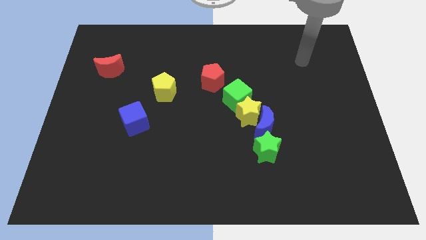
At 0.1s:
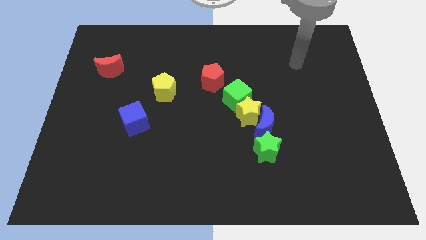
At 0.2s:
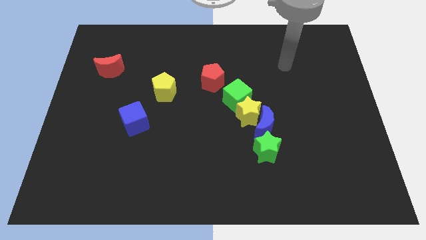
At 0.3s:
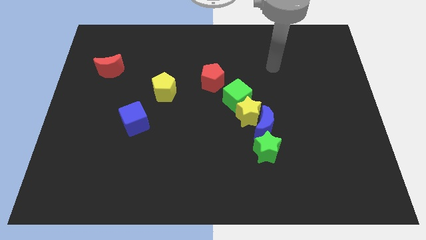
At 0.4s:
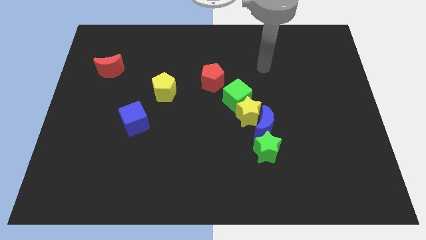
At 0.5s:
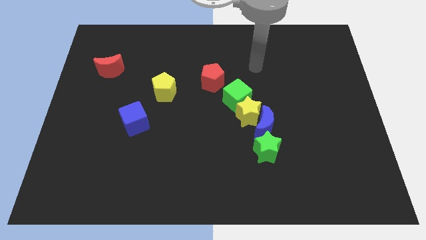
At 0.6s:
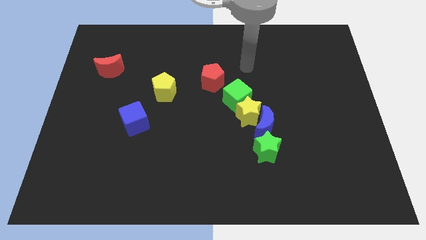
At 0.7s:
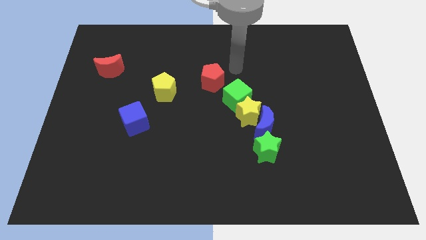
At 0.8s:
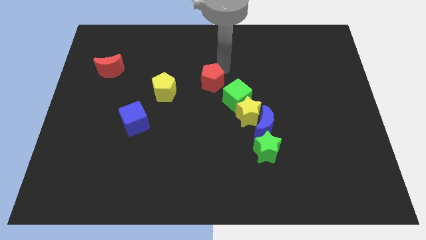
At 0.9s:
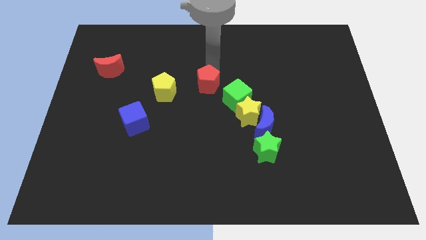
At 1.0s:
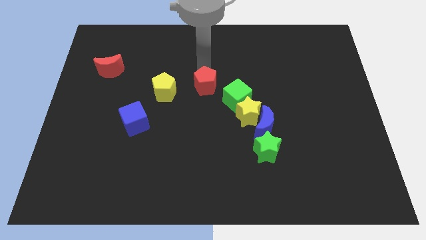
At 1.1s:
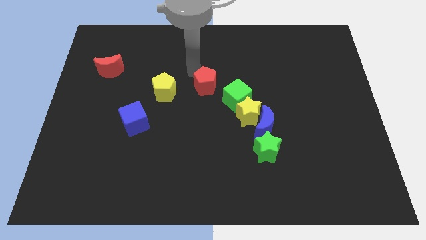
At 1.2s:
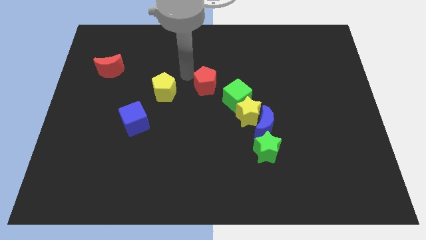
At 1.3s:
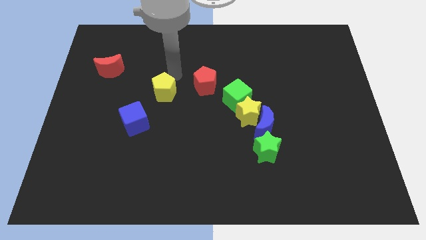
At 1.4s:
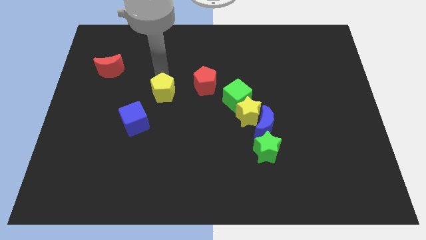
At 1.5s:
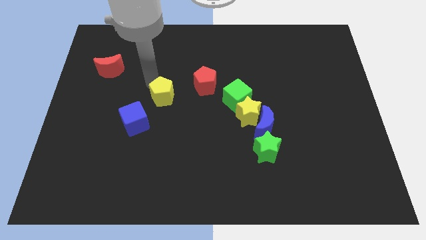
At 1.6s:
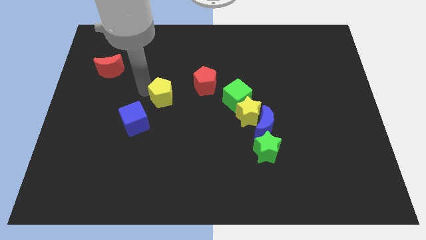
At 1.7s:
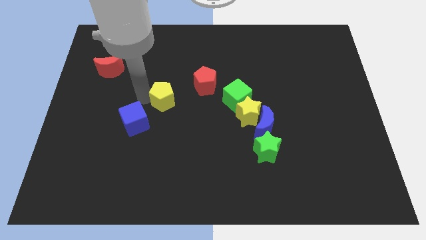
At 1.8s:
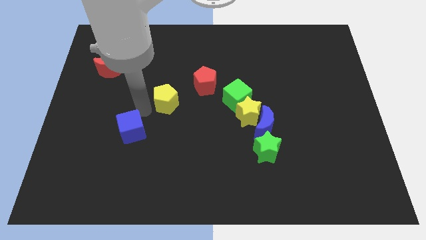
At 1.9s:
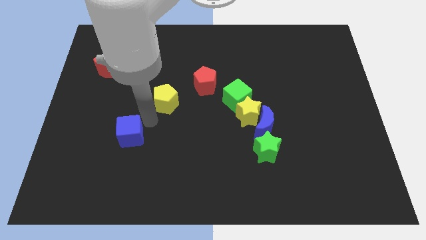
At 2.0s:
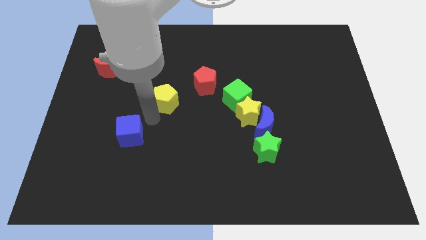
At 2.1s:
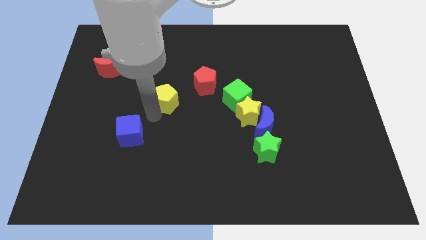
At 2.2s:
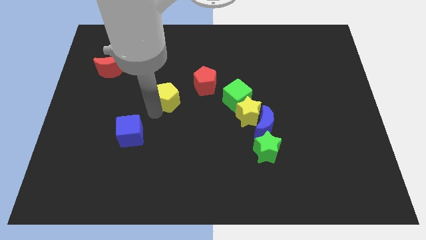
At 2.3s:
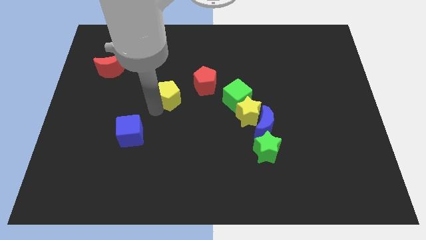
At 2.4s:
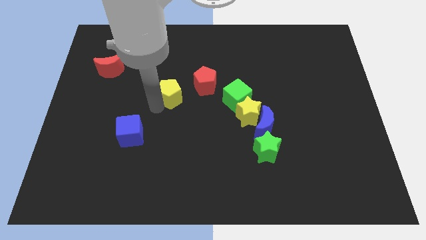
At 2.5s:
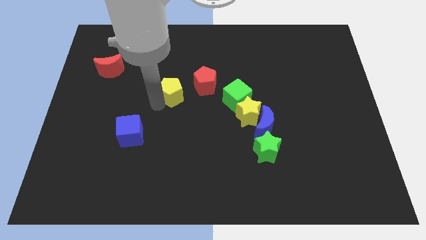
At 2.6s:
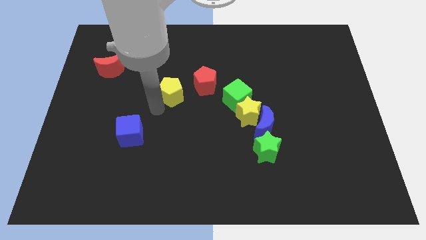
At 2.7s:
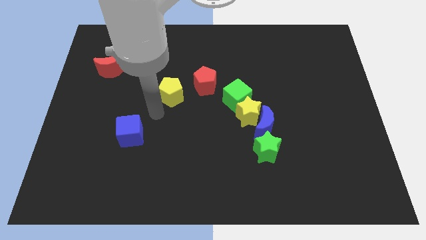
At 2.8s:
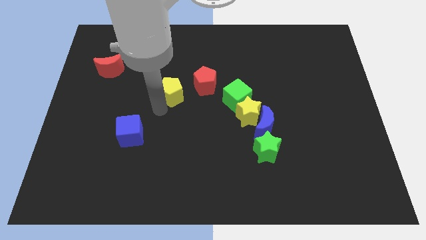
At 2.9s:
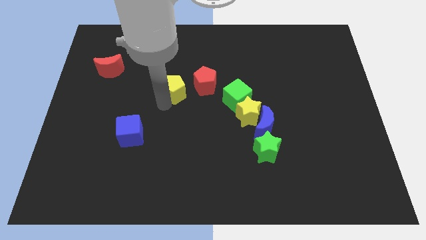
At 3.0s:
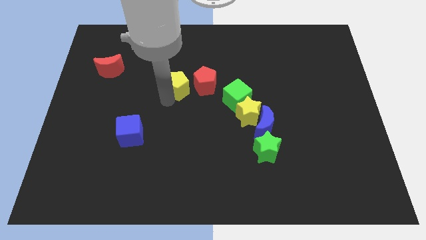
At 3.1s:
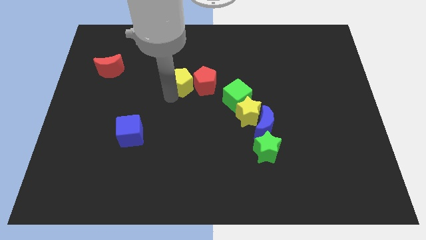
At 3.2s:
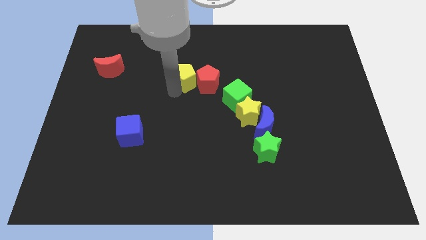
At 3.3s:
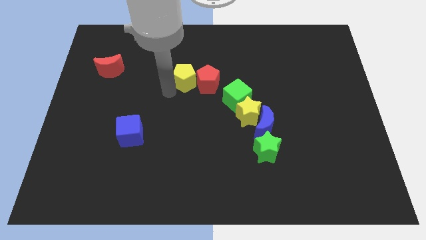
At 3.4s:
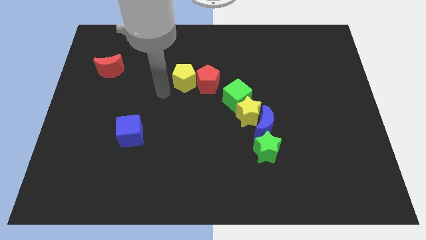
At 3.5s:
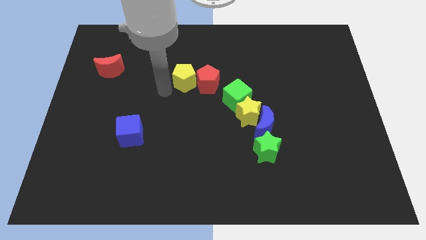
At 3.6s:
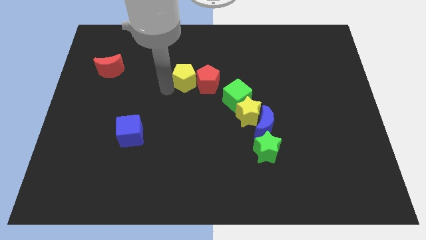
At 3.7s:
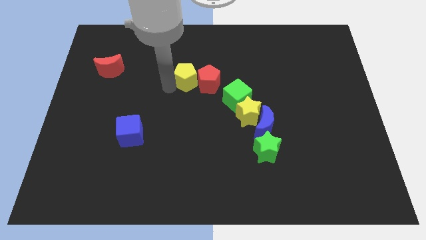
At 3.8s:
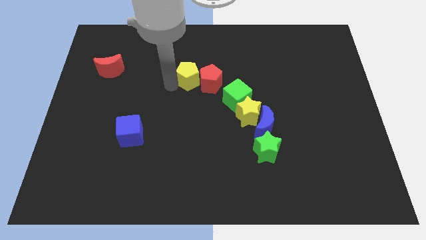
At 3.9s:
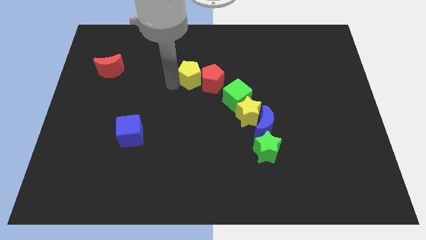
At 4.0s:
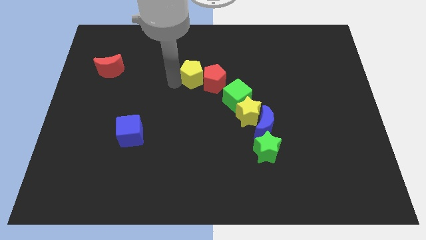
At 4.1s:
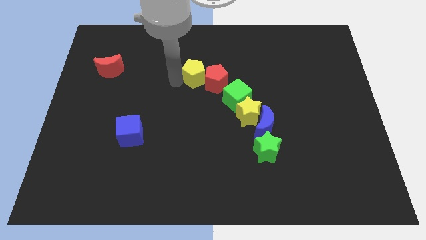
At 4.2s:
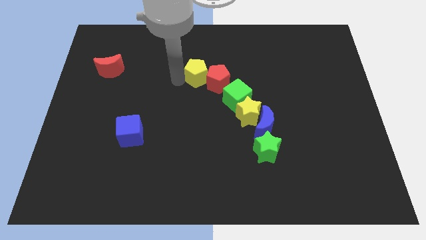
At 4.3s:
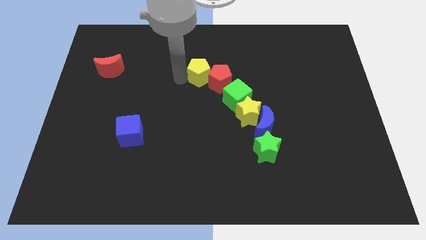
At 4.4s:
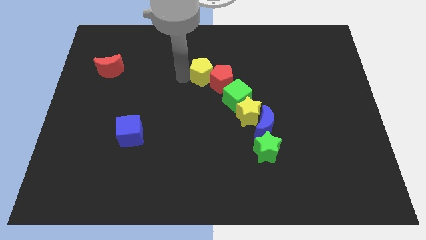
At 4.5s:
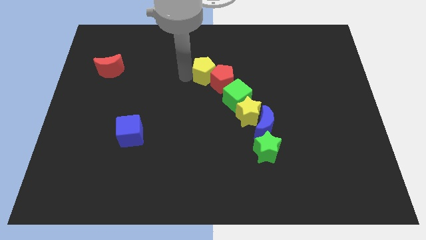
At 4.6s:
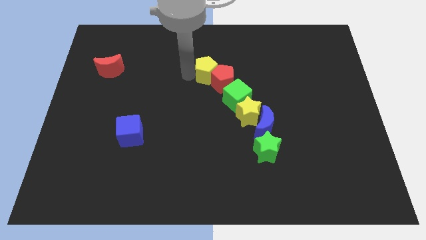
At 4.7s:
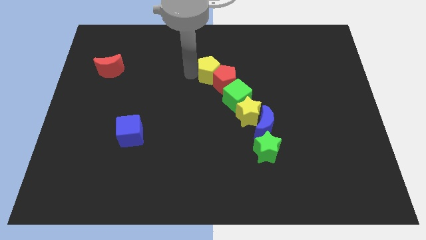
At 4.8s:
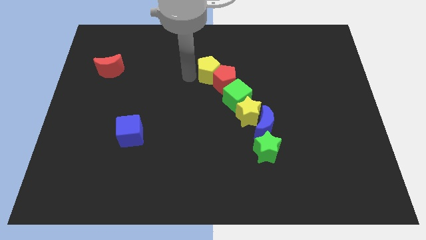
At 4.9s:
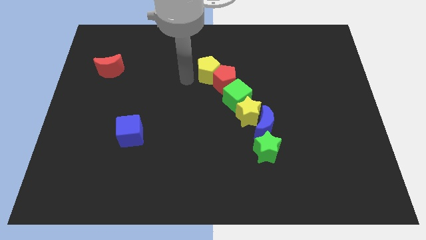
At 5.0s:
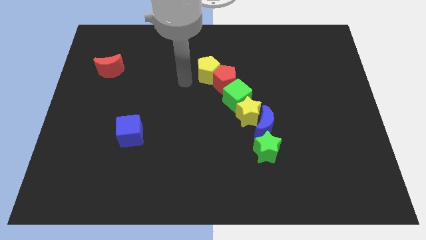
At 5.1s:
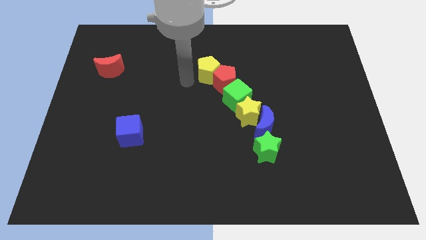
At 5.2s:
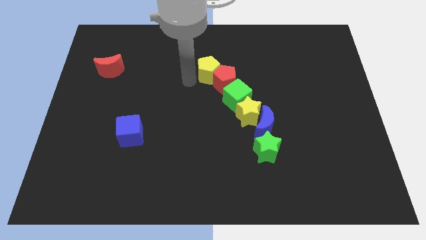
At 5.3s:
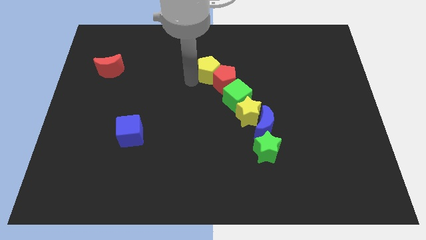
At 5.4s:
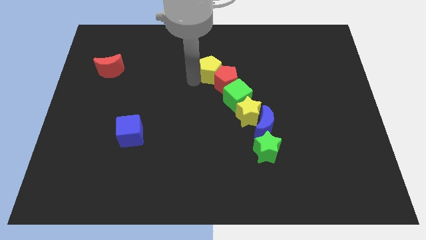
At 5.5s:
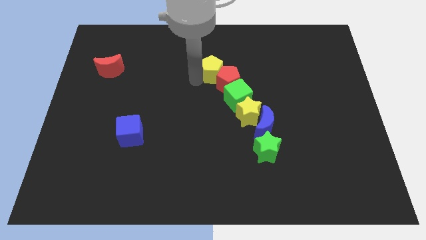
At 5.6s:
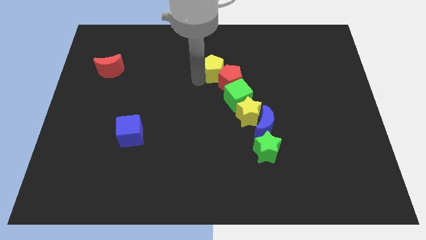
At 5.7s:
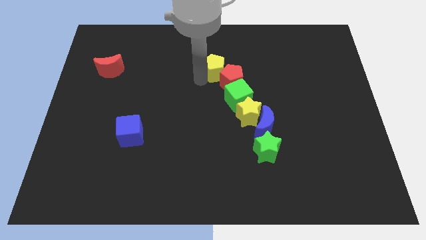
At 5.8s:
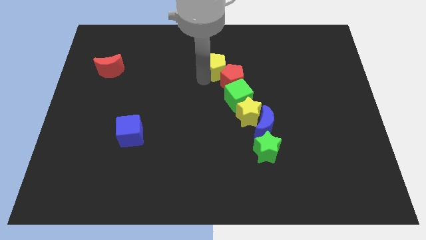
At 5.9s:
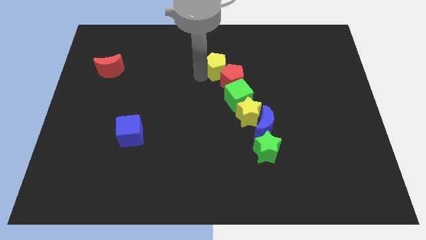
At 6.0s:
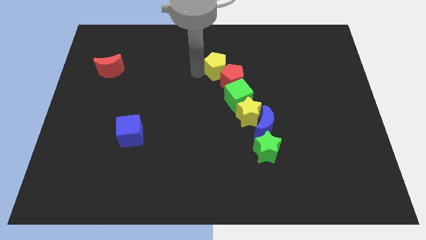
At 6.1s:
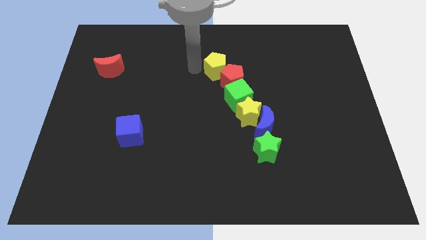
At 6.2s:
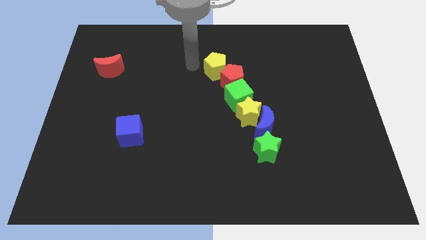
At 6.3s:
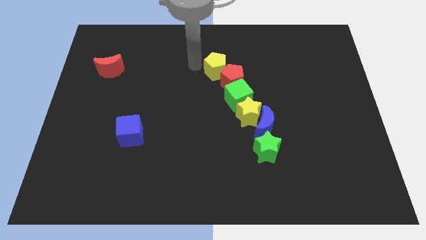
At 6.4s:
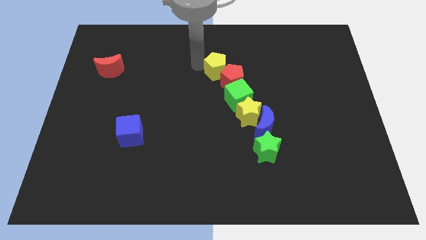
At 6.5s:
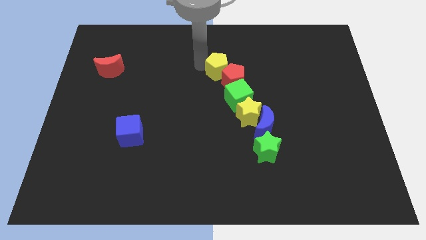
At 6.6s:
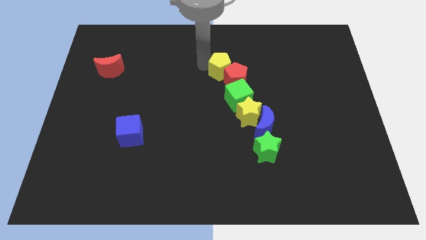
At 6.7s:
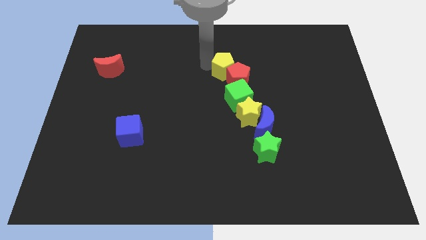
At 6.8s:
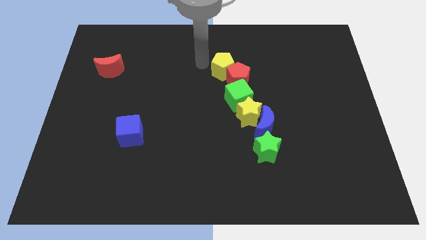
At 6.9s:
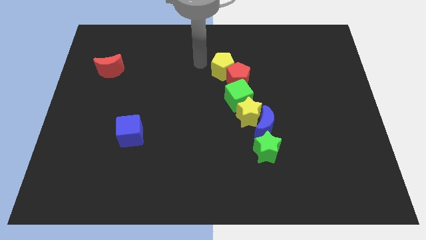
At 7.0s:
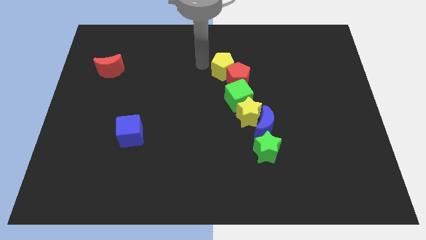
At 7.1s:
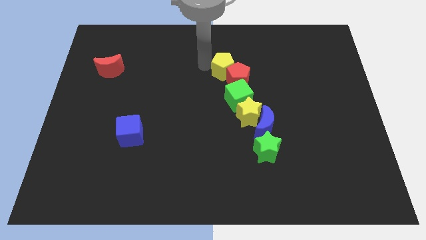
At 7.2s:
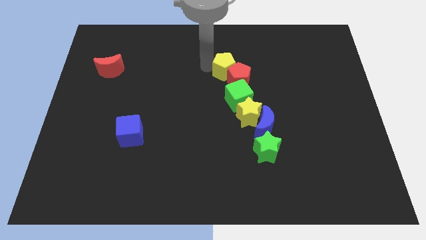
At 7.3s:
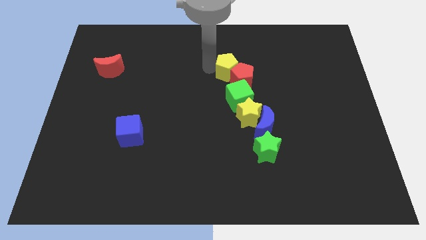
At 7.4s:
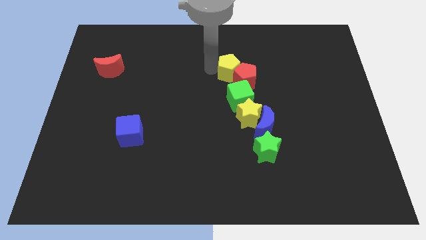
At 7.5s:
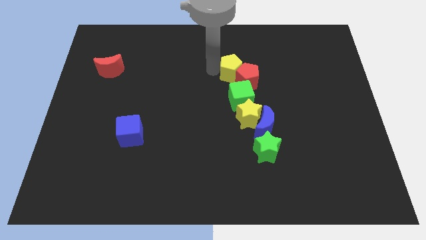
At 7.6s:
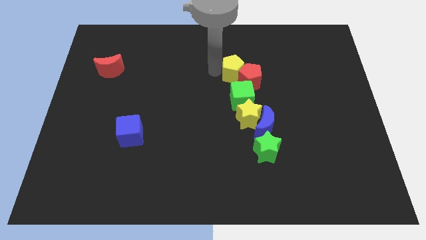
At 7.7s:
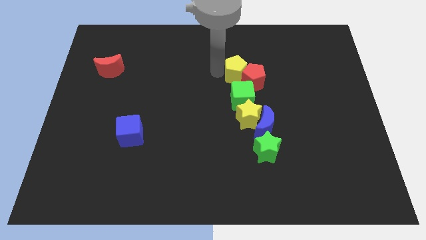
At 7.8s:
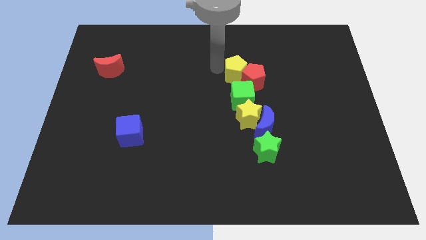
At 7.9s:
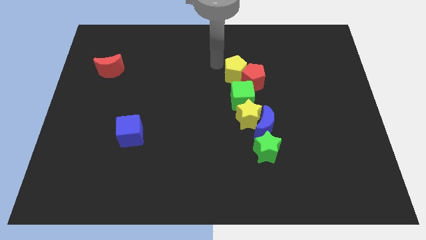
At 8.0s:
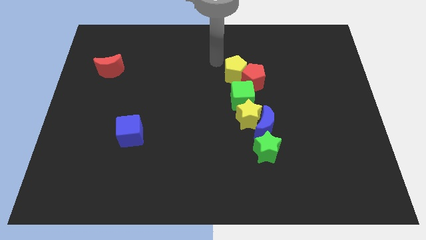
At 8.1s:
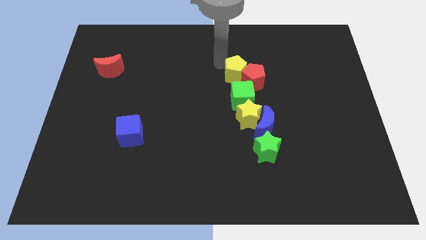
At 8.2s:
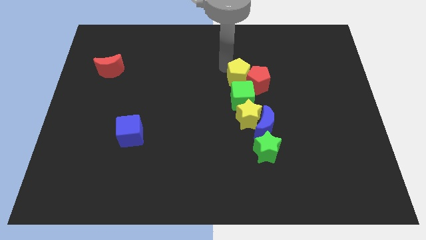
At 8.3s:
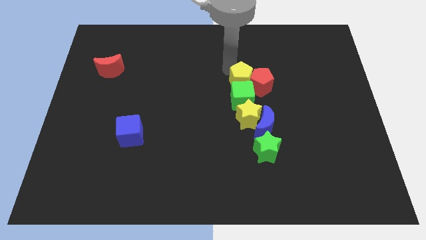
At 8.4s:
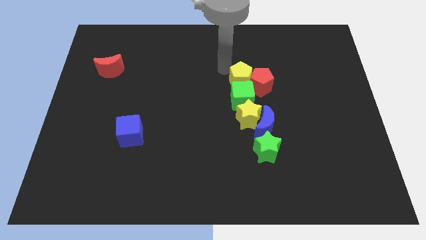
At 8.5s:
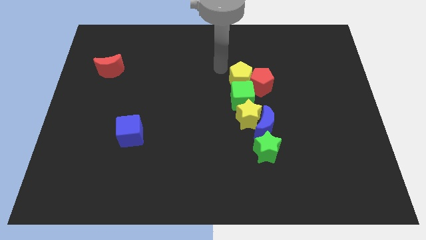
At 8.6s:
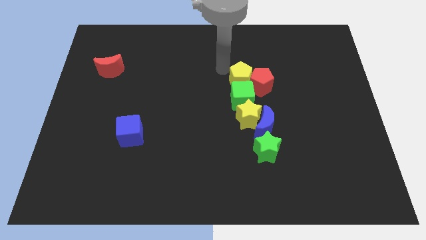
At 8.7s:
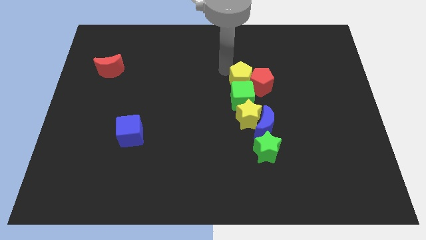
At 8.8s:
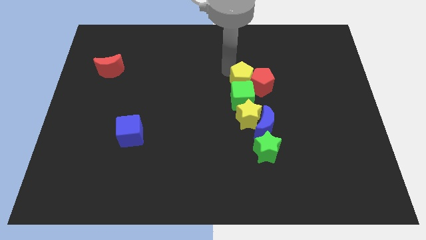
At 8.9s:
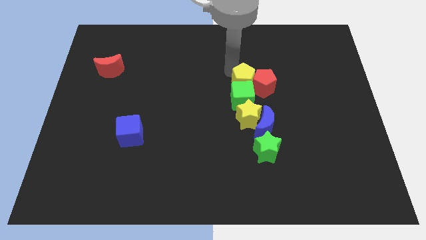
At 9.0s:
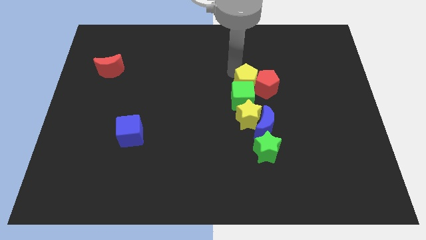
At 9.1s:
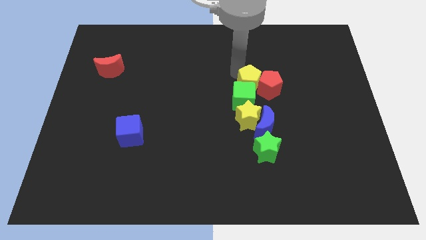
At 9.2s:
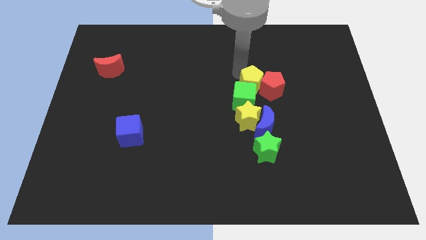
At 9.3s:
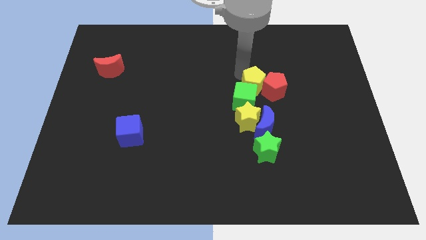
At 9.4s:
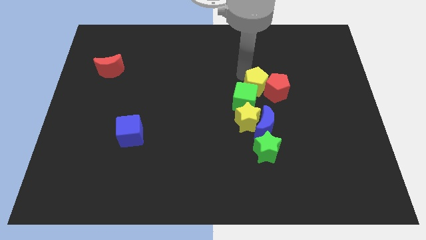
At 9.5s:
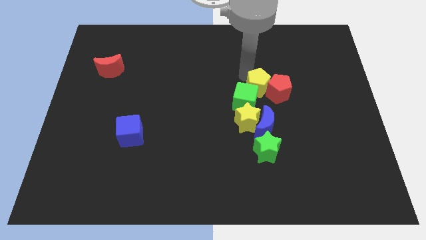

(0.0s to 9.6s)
slide the yellow pentagon to the right side of the green cube
